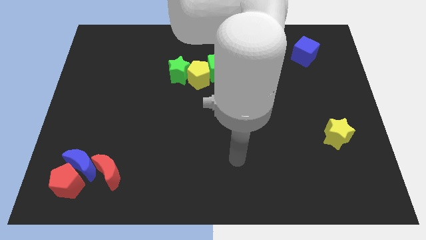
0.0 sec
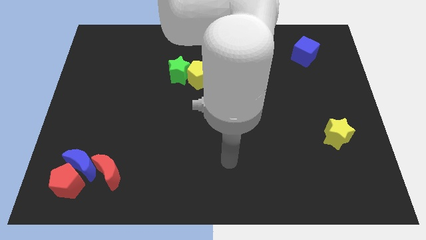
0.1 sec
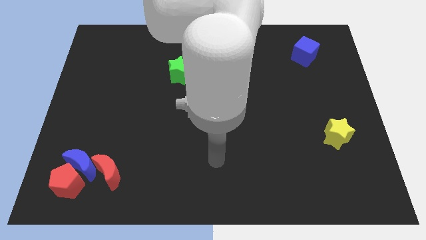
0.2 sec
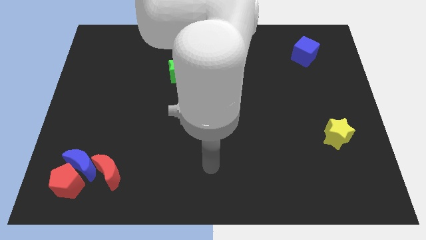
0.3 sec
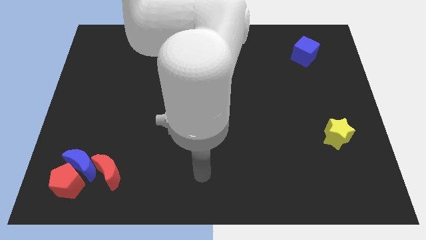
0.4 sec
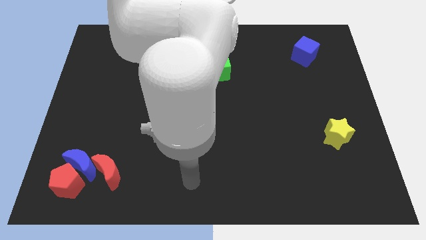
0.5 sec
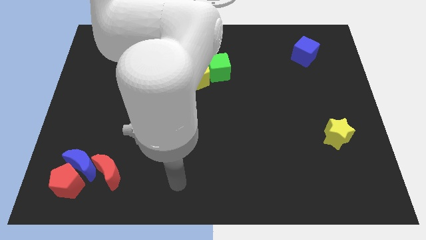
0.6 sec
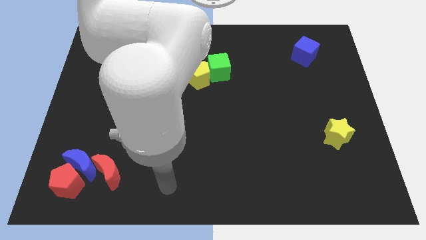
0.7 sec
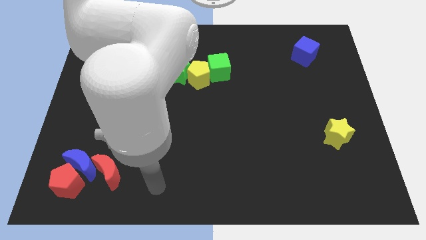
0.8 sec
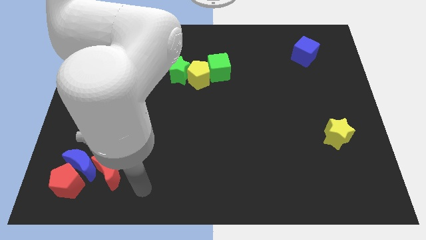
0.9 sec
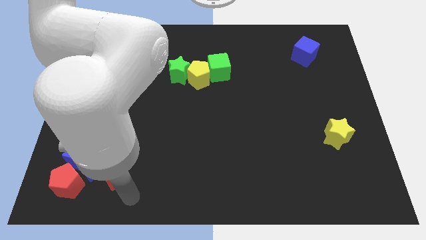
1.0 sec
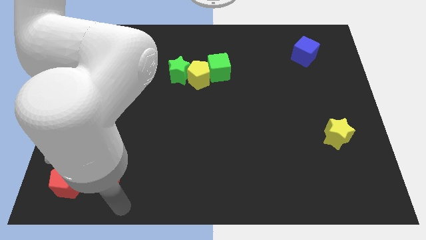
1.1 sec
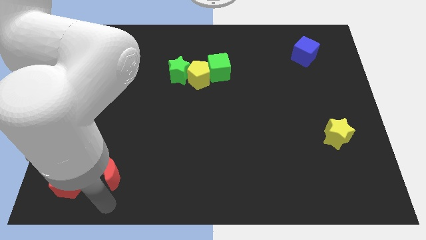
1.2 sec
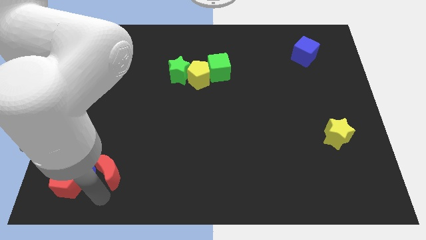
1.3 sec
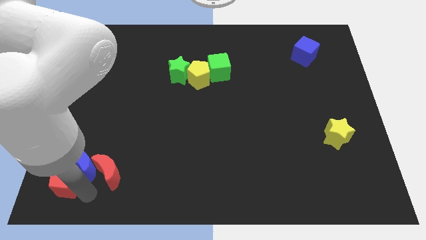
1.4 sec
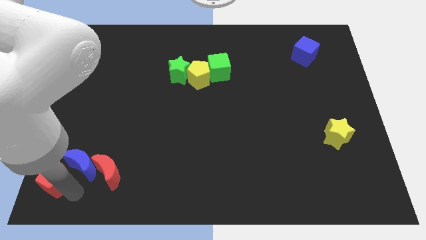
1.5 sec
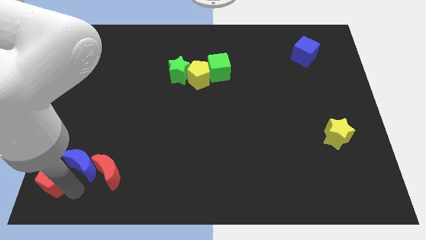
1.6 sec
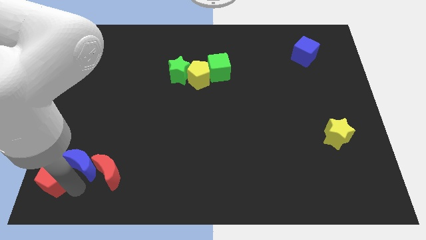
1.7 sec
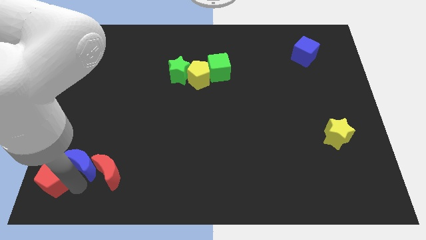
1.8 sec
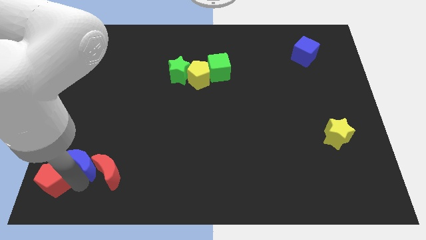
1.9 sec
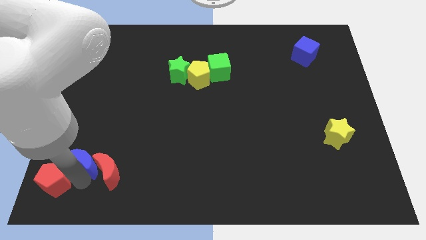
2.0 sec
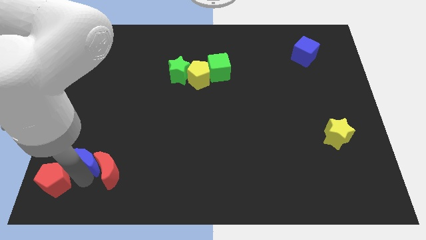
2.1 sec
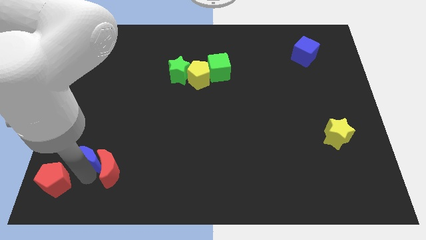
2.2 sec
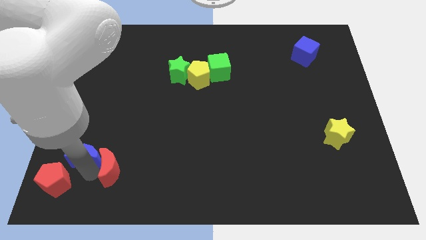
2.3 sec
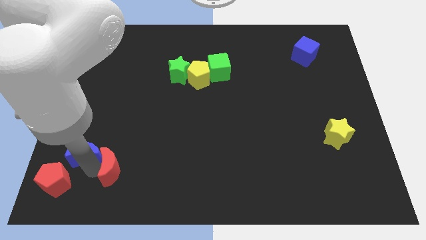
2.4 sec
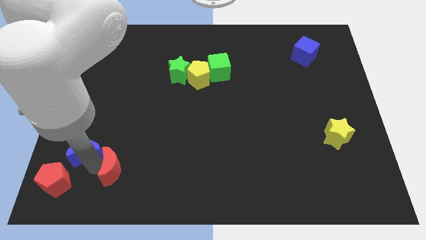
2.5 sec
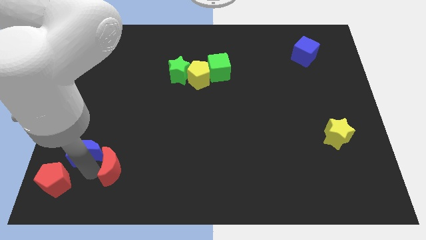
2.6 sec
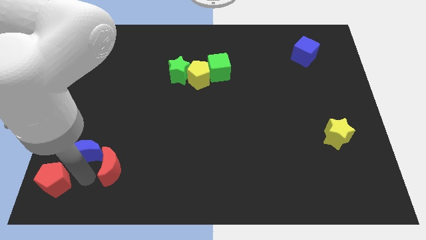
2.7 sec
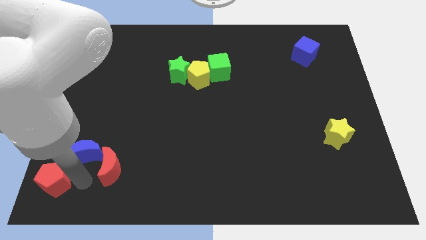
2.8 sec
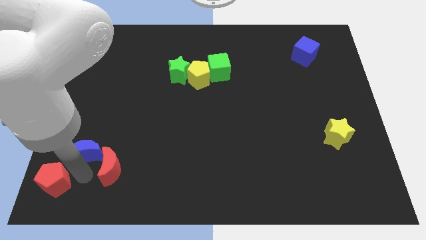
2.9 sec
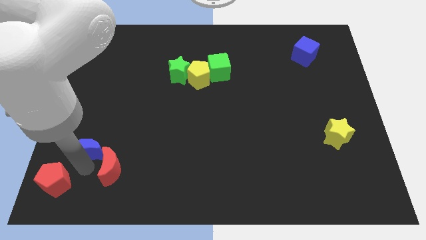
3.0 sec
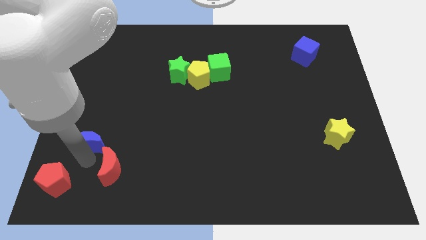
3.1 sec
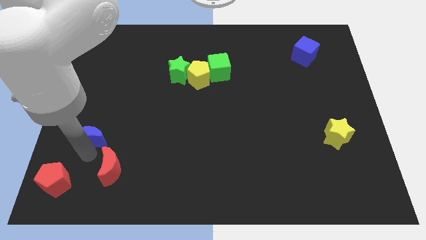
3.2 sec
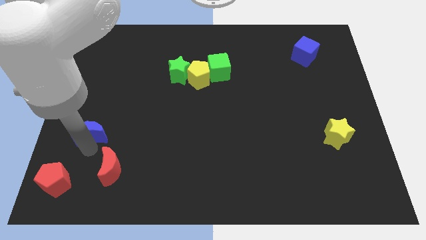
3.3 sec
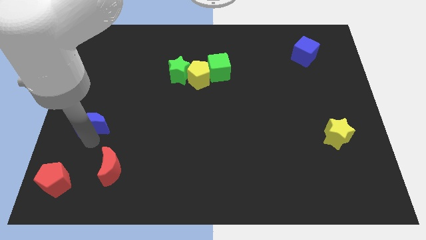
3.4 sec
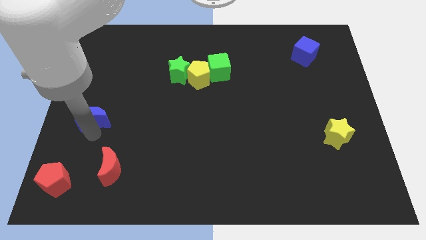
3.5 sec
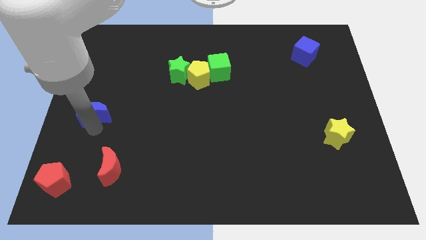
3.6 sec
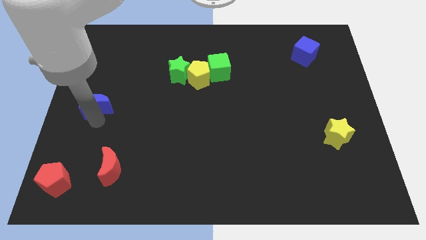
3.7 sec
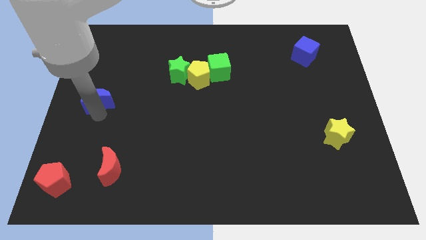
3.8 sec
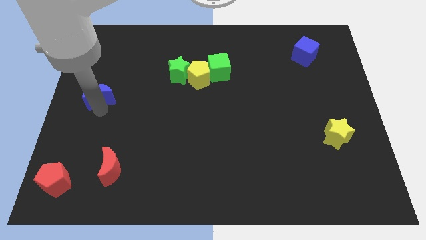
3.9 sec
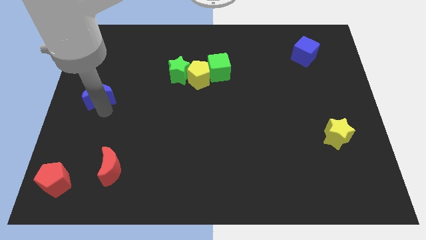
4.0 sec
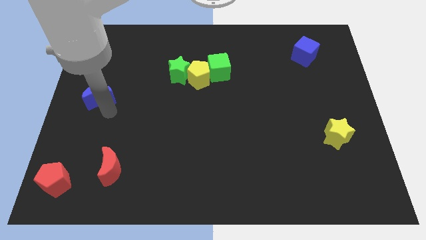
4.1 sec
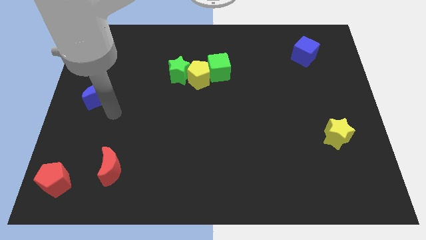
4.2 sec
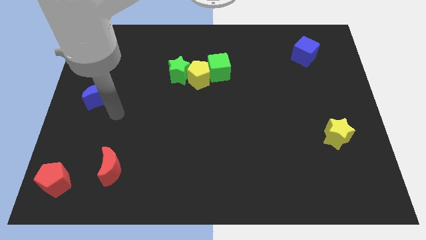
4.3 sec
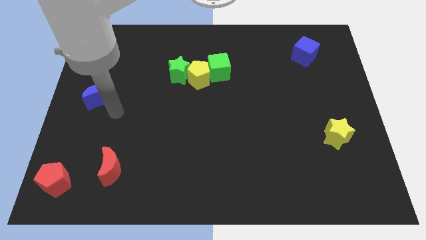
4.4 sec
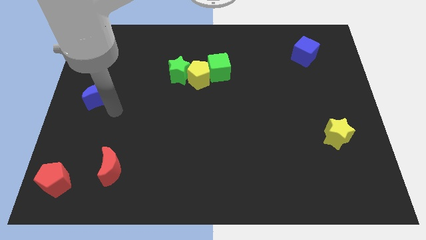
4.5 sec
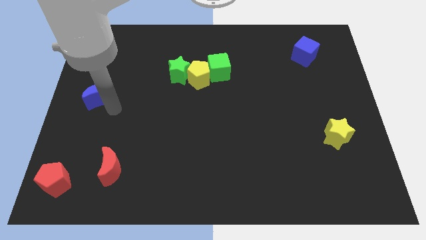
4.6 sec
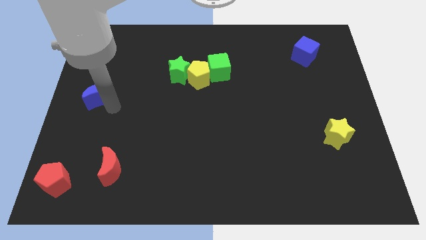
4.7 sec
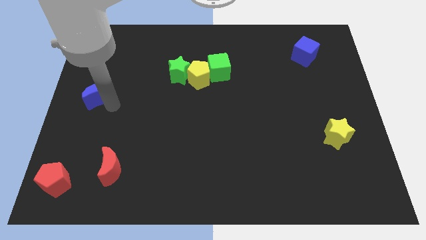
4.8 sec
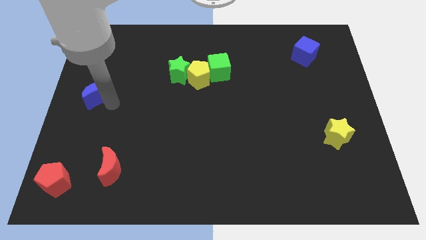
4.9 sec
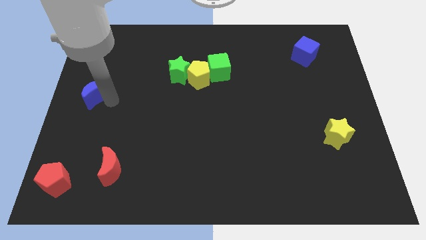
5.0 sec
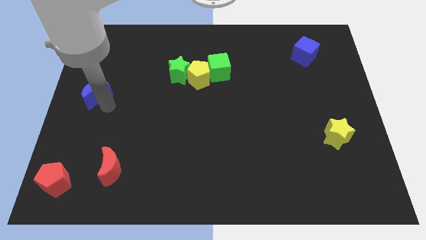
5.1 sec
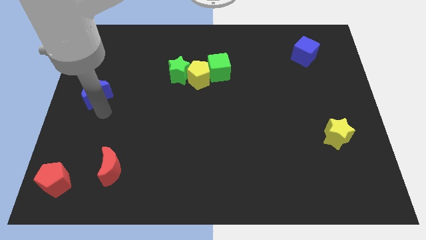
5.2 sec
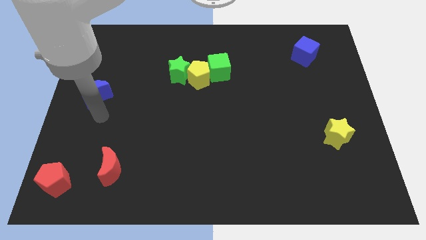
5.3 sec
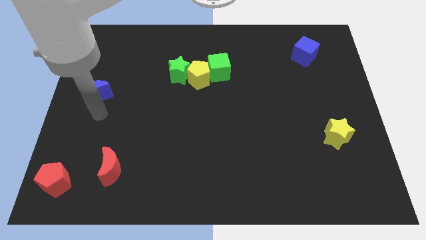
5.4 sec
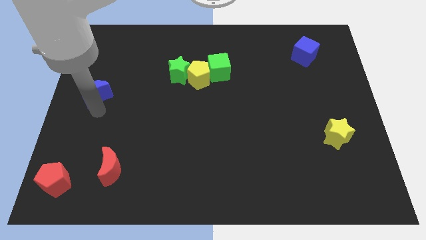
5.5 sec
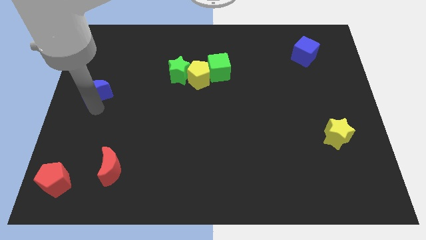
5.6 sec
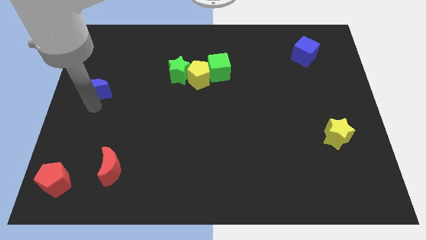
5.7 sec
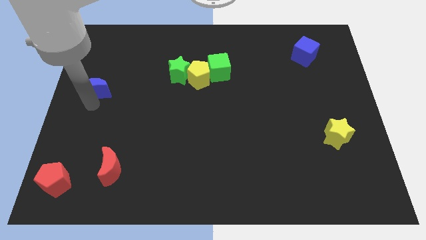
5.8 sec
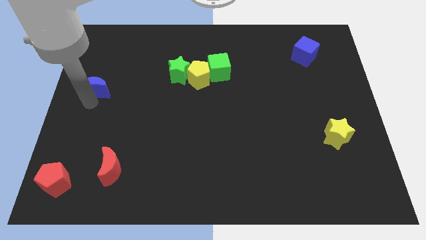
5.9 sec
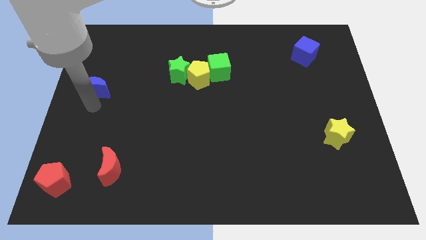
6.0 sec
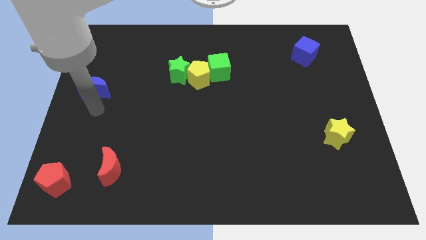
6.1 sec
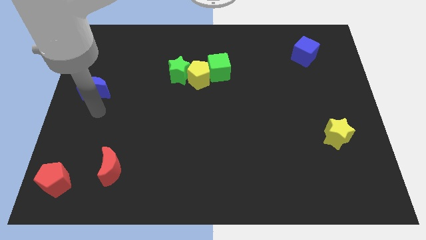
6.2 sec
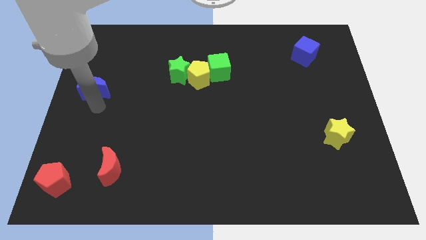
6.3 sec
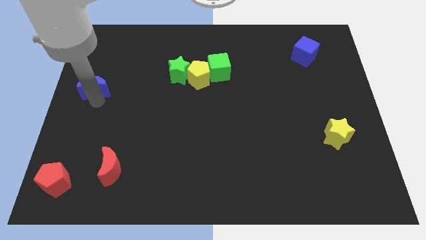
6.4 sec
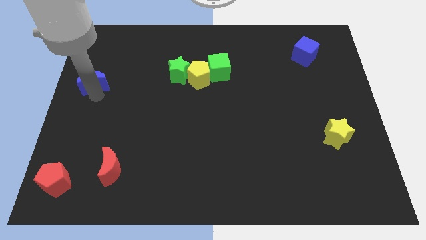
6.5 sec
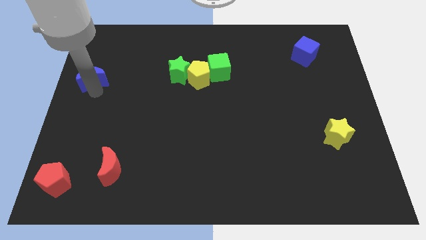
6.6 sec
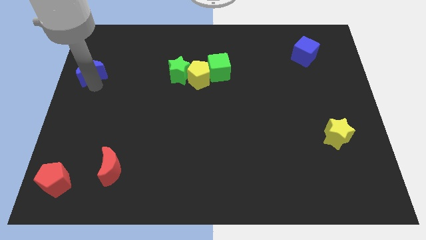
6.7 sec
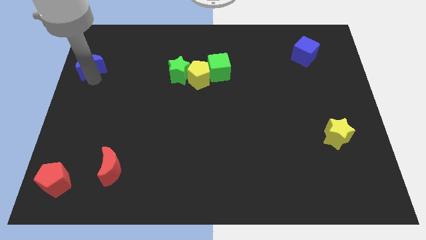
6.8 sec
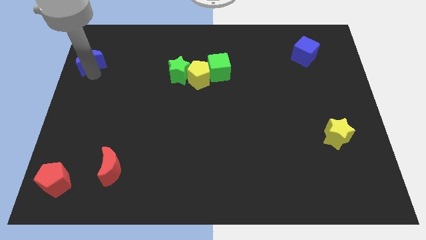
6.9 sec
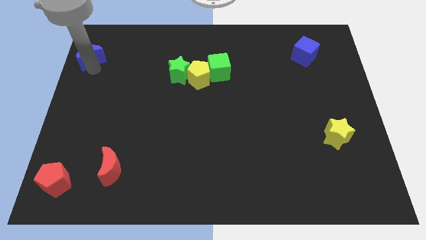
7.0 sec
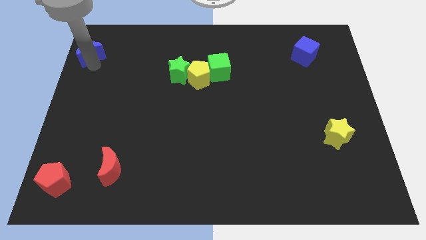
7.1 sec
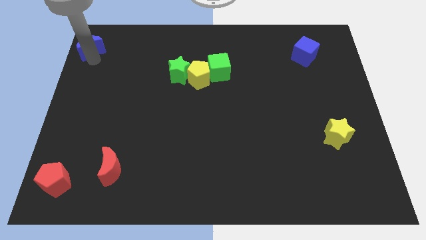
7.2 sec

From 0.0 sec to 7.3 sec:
move the blue moon to the top left corner
